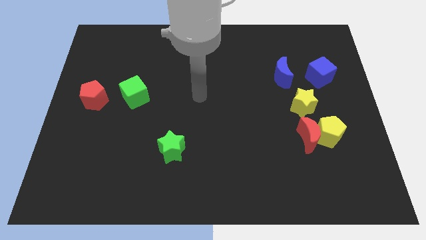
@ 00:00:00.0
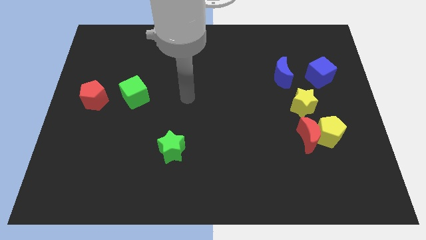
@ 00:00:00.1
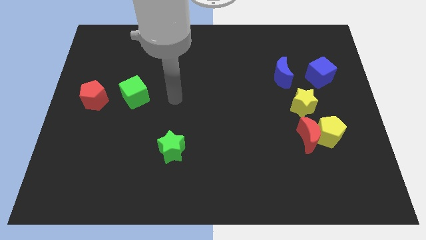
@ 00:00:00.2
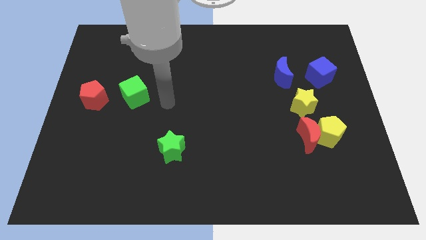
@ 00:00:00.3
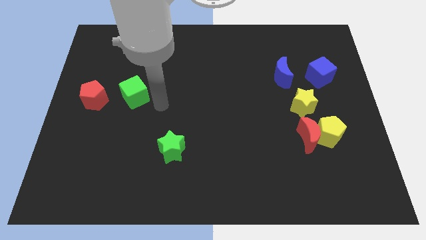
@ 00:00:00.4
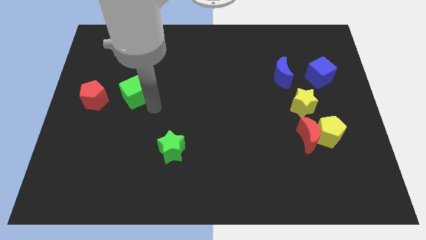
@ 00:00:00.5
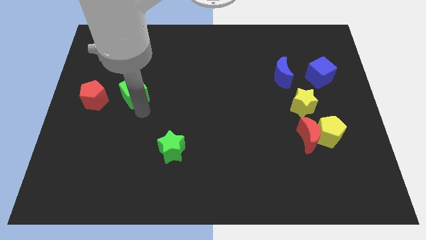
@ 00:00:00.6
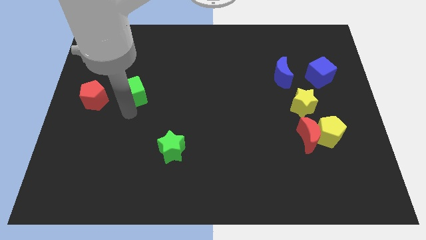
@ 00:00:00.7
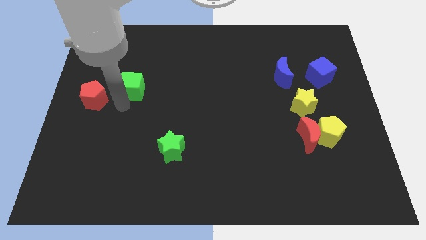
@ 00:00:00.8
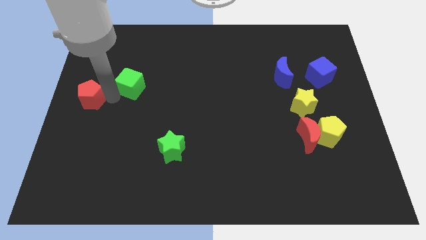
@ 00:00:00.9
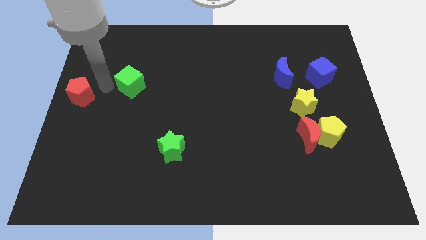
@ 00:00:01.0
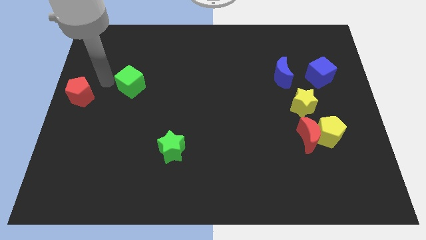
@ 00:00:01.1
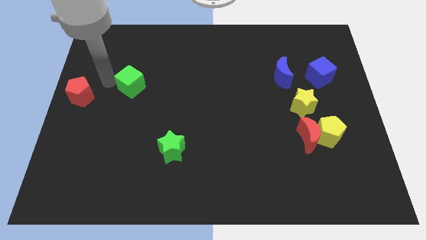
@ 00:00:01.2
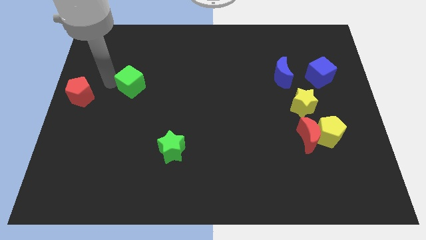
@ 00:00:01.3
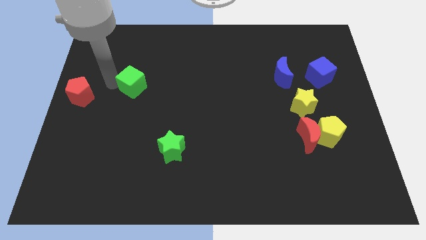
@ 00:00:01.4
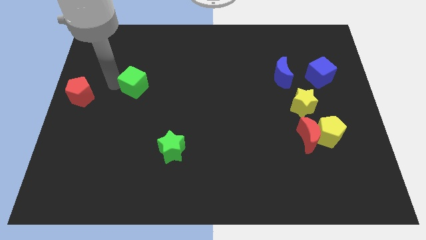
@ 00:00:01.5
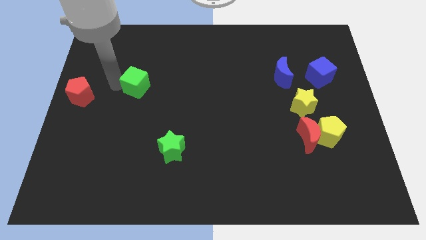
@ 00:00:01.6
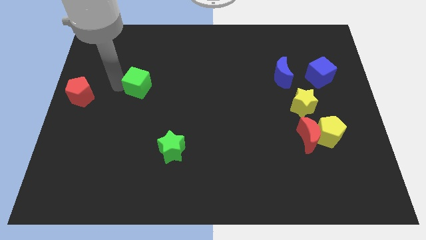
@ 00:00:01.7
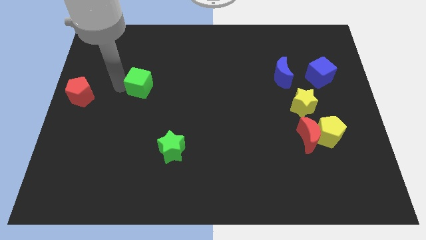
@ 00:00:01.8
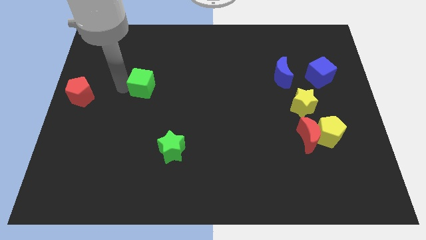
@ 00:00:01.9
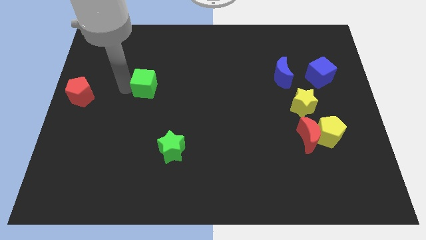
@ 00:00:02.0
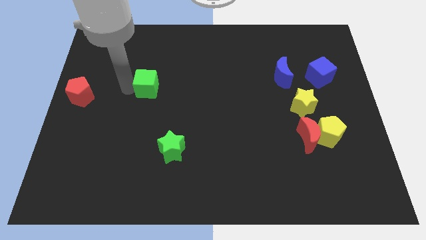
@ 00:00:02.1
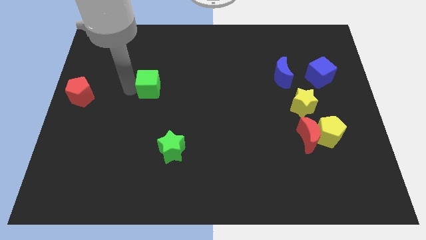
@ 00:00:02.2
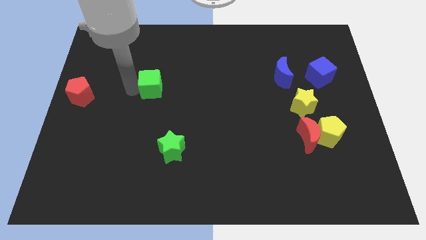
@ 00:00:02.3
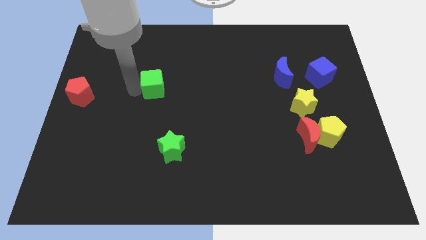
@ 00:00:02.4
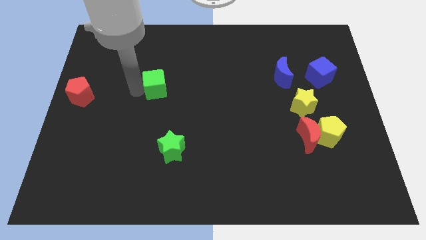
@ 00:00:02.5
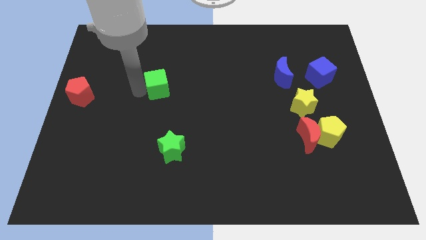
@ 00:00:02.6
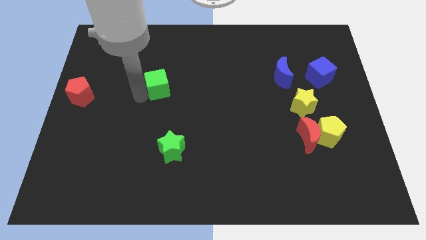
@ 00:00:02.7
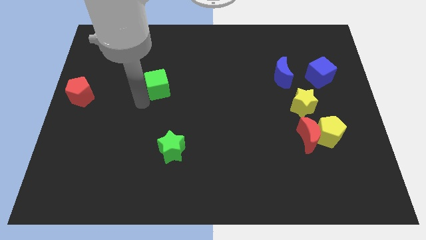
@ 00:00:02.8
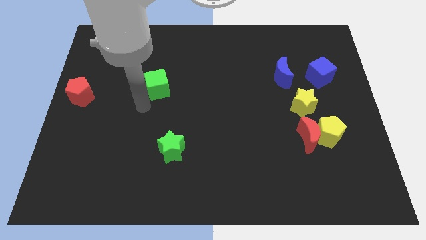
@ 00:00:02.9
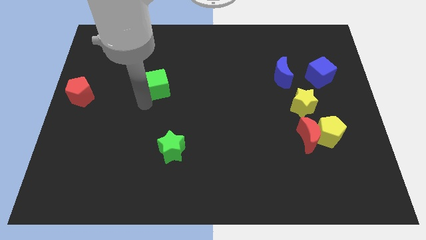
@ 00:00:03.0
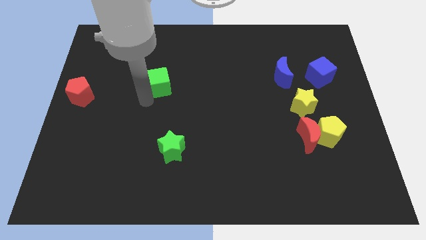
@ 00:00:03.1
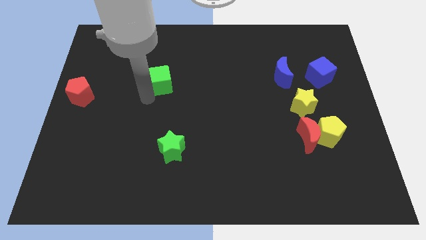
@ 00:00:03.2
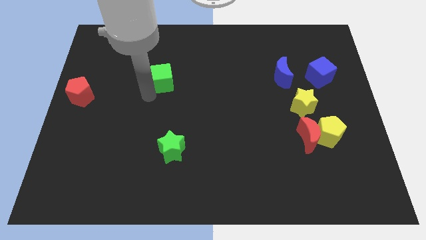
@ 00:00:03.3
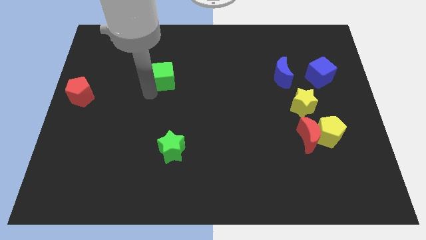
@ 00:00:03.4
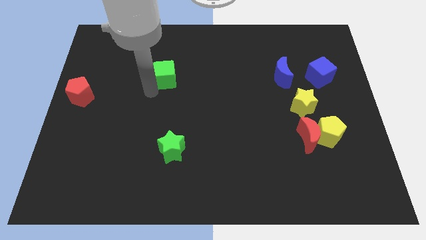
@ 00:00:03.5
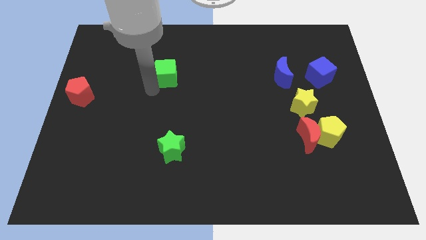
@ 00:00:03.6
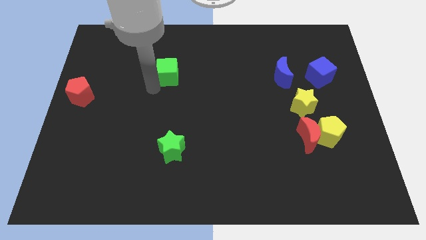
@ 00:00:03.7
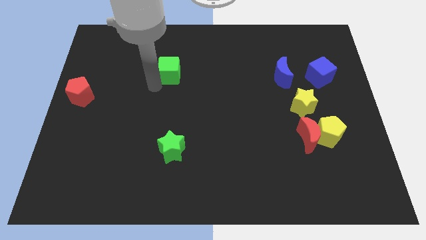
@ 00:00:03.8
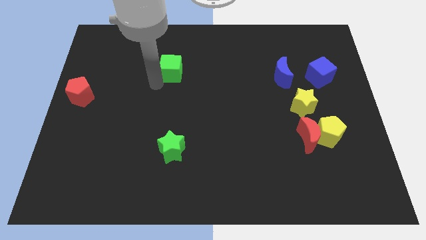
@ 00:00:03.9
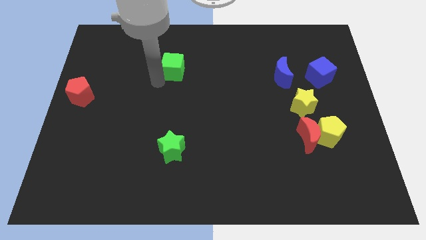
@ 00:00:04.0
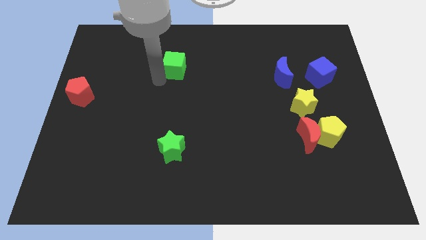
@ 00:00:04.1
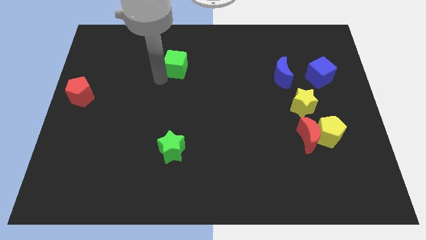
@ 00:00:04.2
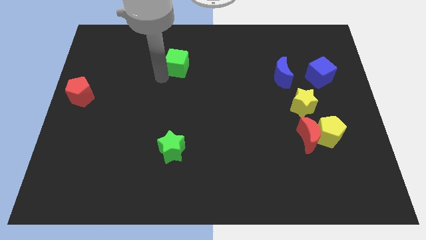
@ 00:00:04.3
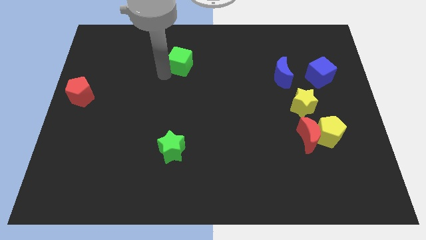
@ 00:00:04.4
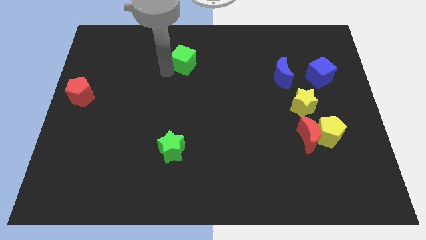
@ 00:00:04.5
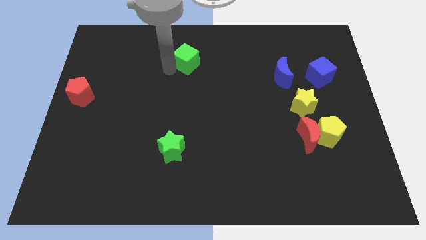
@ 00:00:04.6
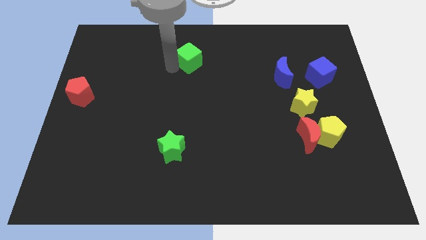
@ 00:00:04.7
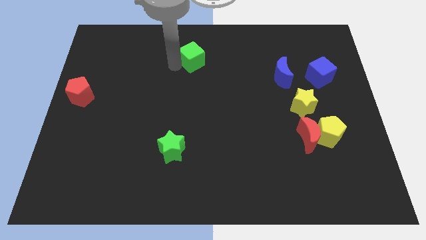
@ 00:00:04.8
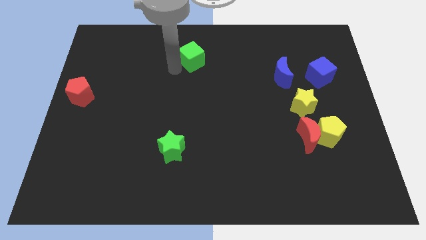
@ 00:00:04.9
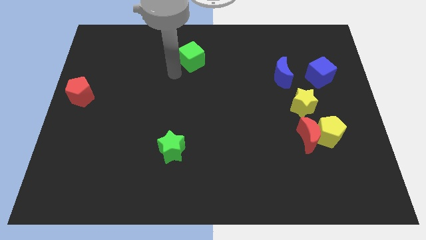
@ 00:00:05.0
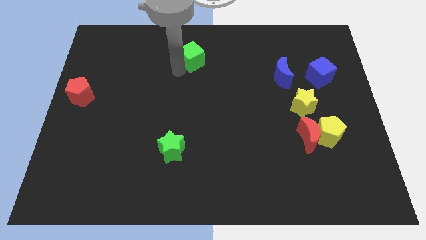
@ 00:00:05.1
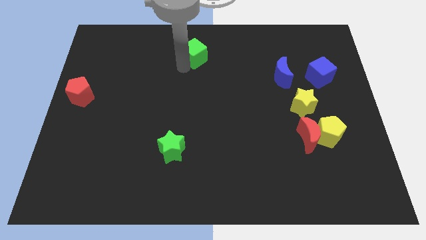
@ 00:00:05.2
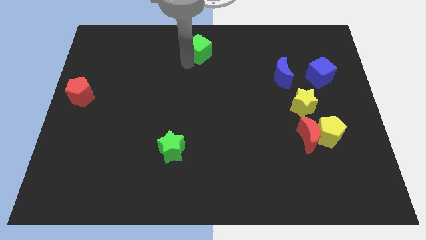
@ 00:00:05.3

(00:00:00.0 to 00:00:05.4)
slide the green cube to the towards your base

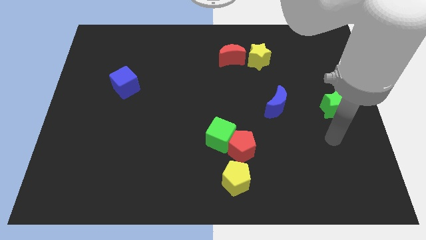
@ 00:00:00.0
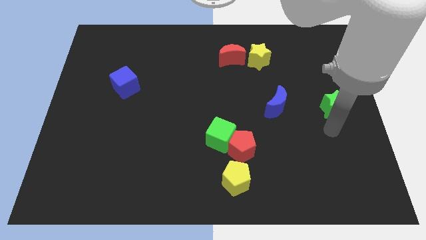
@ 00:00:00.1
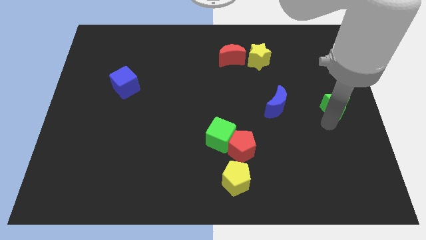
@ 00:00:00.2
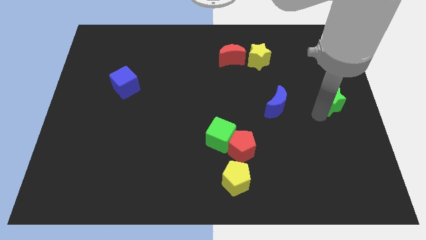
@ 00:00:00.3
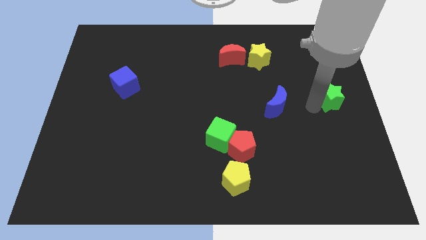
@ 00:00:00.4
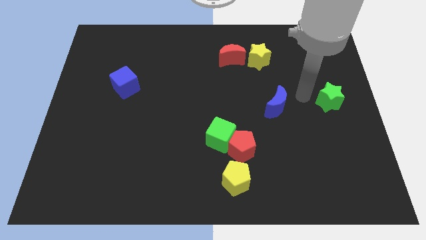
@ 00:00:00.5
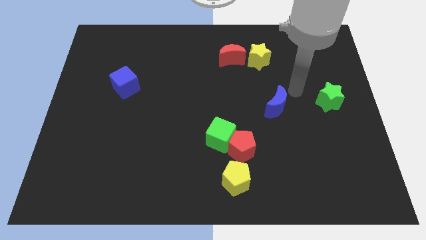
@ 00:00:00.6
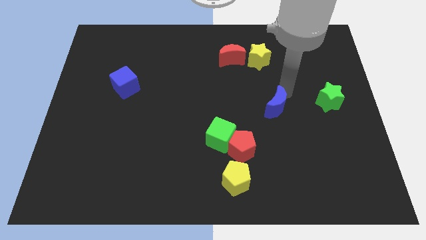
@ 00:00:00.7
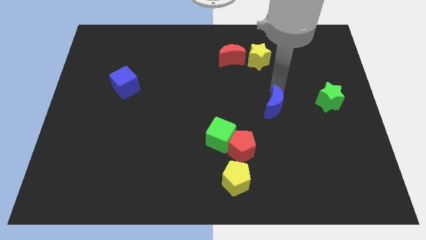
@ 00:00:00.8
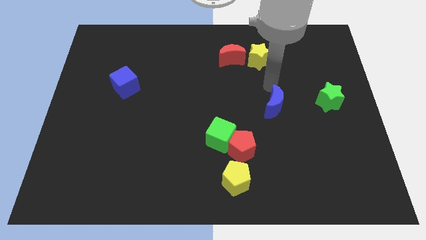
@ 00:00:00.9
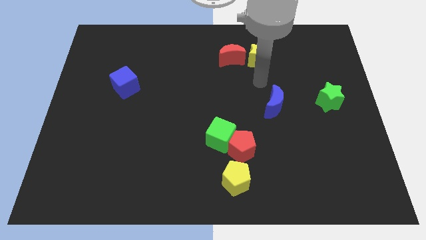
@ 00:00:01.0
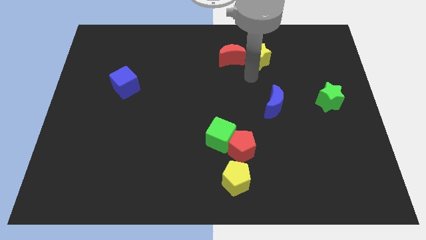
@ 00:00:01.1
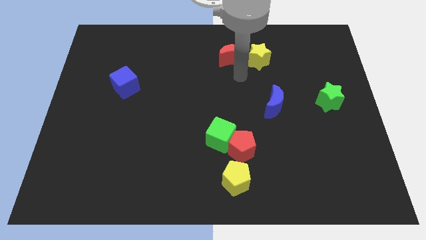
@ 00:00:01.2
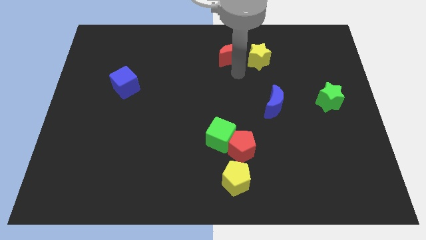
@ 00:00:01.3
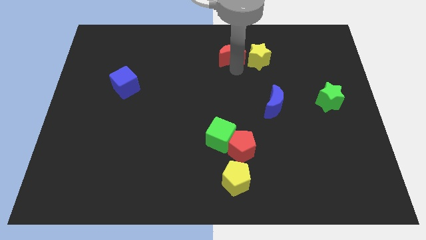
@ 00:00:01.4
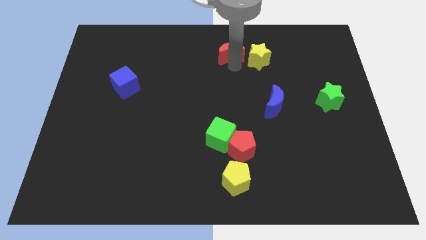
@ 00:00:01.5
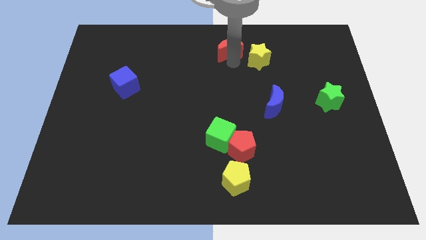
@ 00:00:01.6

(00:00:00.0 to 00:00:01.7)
move the red moon to the top side

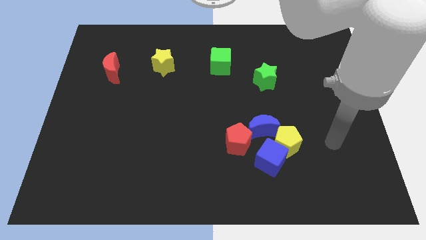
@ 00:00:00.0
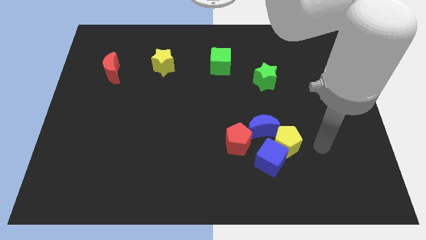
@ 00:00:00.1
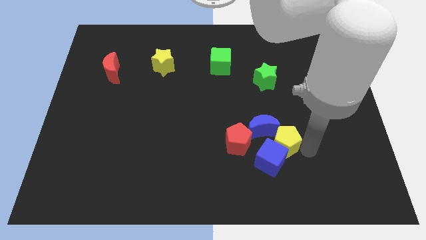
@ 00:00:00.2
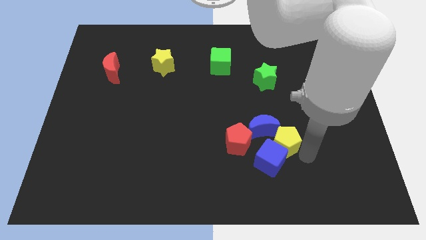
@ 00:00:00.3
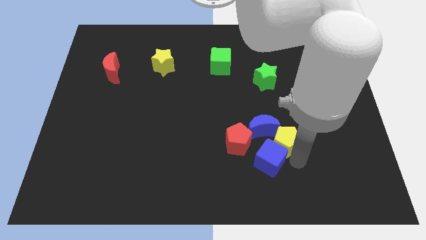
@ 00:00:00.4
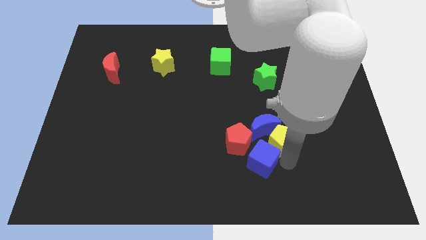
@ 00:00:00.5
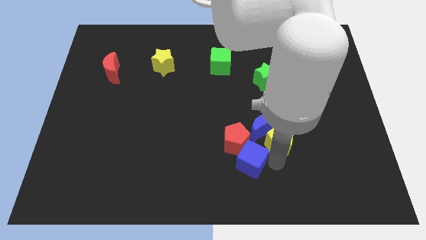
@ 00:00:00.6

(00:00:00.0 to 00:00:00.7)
put the red pentagon to the center
